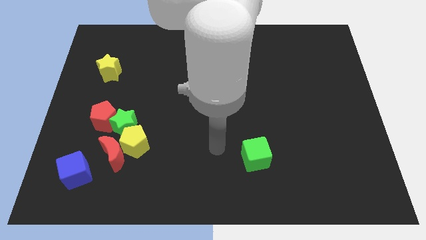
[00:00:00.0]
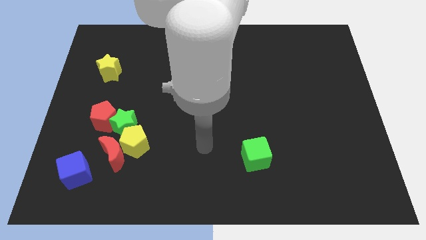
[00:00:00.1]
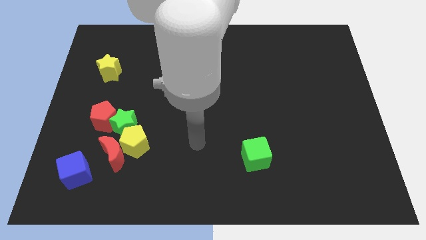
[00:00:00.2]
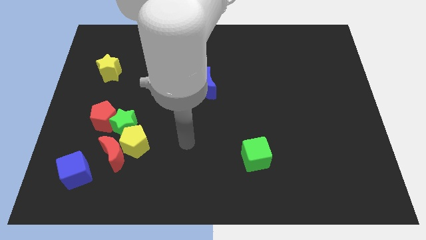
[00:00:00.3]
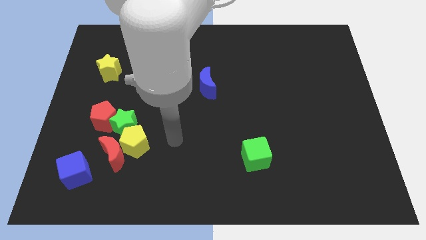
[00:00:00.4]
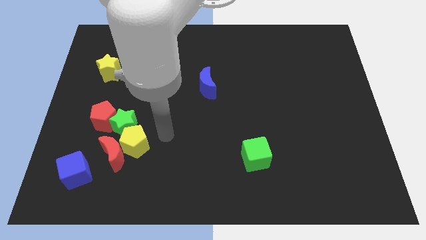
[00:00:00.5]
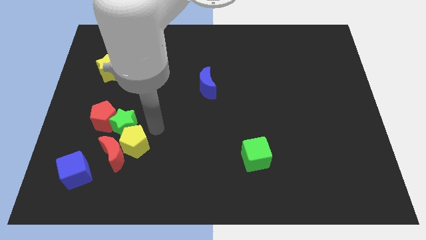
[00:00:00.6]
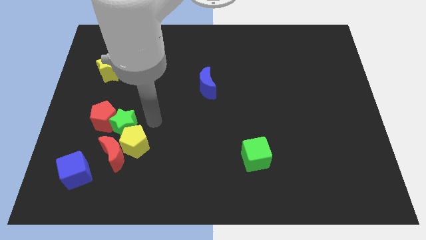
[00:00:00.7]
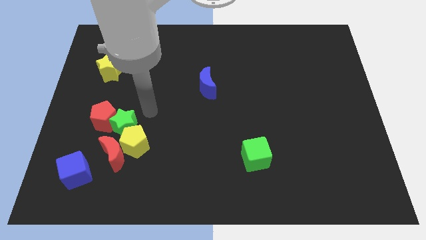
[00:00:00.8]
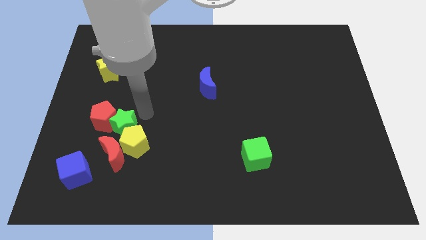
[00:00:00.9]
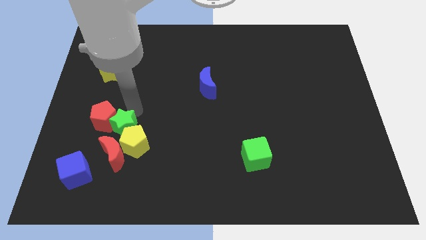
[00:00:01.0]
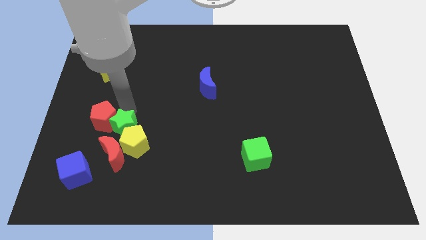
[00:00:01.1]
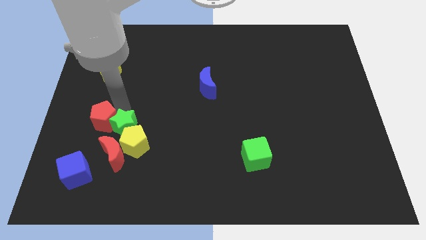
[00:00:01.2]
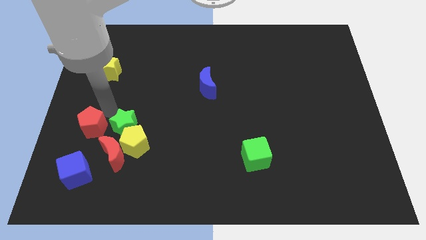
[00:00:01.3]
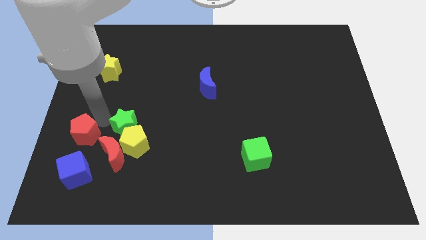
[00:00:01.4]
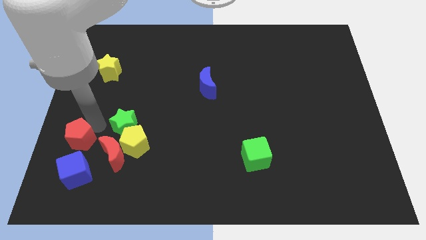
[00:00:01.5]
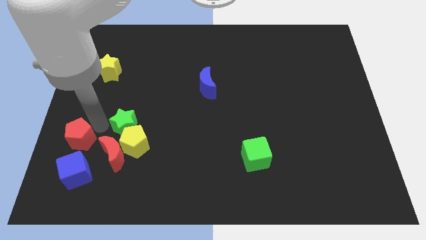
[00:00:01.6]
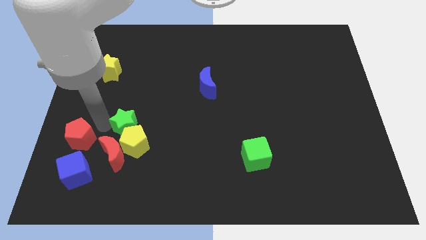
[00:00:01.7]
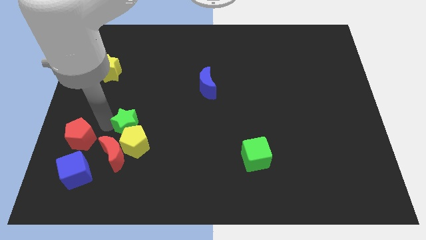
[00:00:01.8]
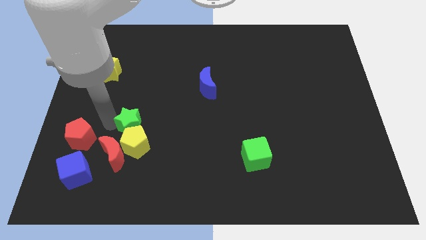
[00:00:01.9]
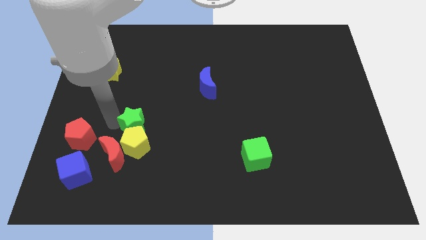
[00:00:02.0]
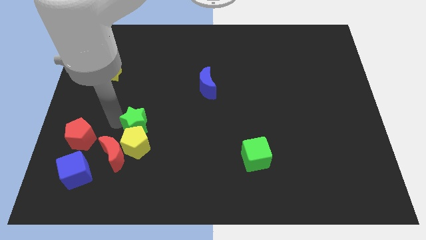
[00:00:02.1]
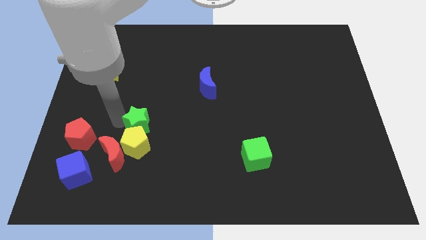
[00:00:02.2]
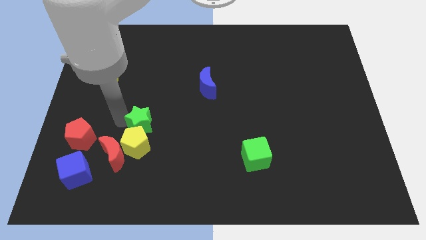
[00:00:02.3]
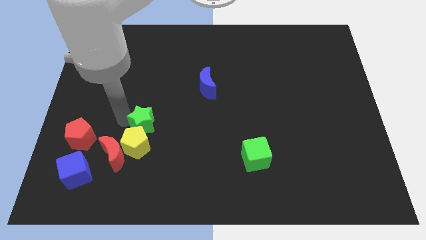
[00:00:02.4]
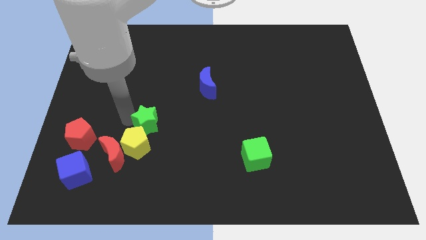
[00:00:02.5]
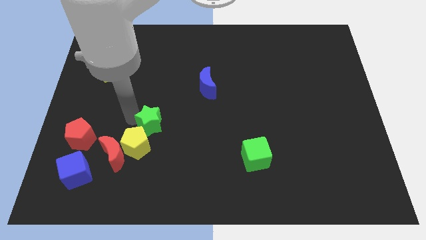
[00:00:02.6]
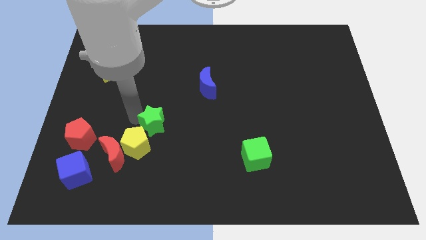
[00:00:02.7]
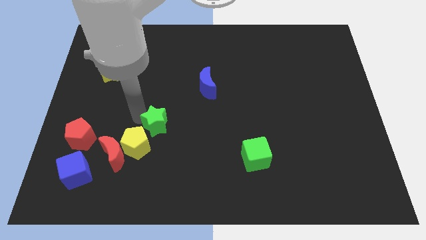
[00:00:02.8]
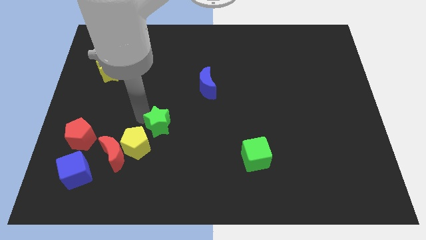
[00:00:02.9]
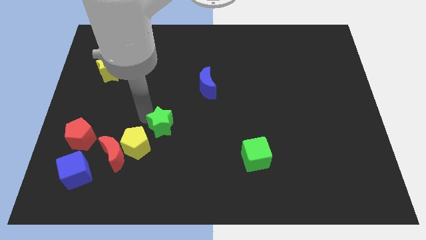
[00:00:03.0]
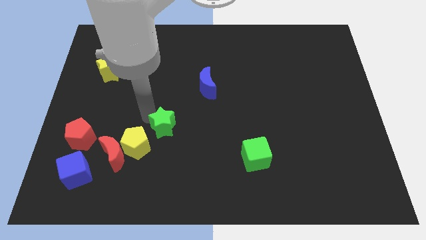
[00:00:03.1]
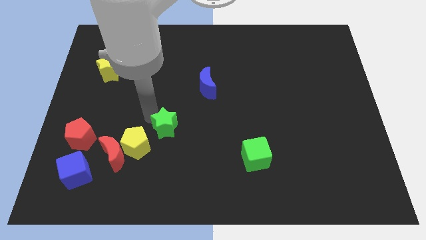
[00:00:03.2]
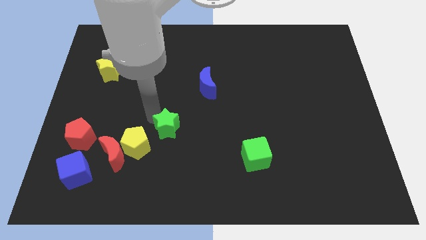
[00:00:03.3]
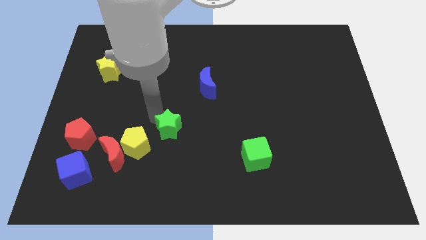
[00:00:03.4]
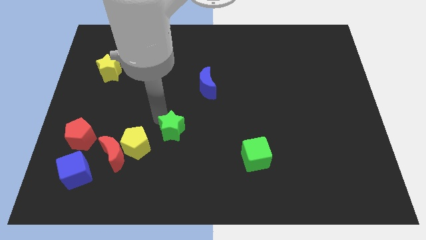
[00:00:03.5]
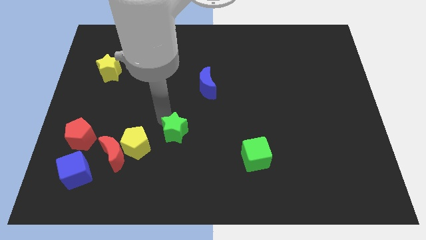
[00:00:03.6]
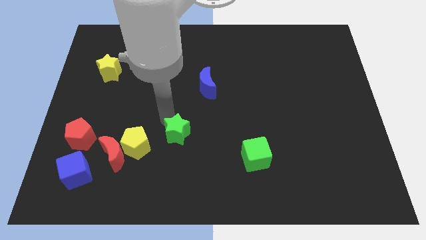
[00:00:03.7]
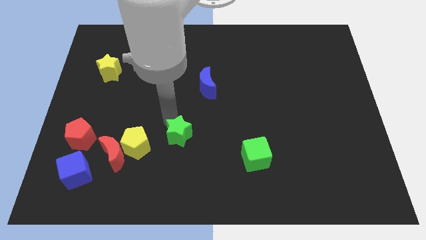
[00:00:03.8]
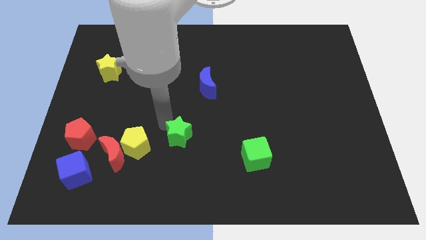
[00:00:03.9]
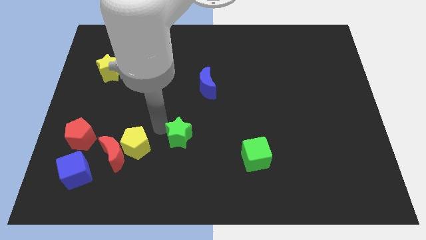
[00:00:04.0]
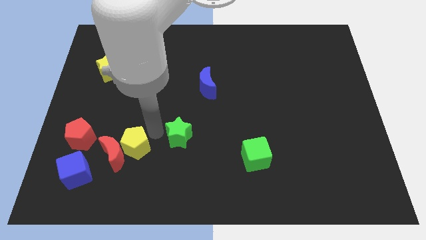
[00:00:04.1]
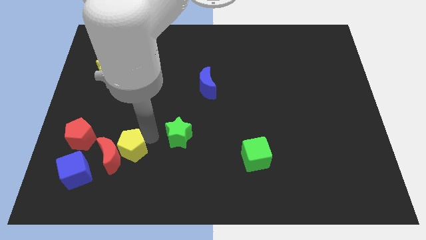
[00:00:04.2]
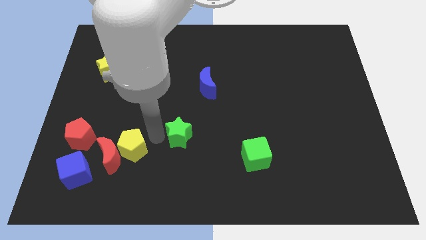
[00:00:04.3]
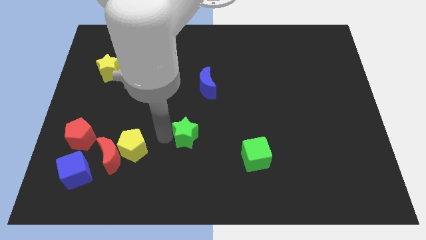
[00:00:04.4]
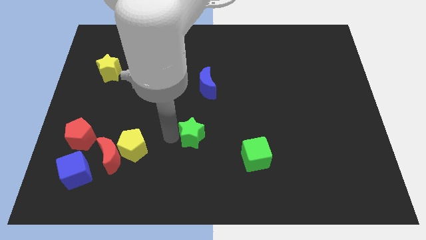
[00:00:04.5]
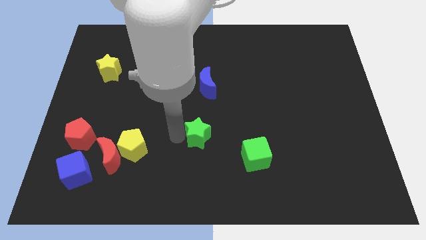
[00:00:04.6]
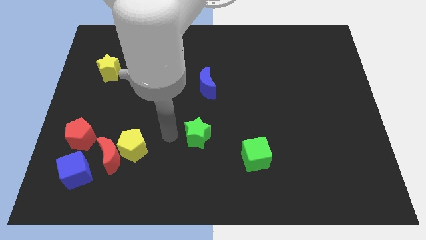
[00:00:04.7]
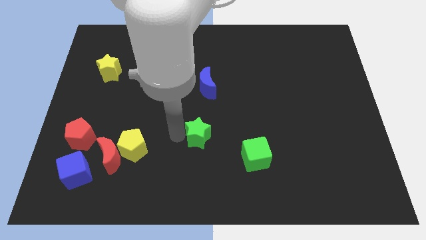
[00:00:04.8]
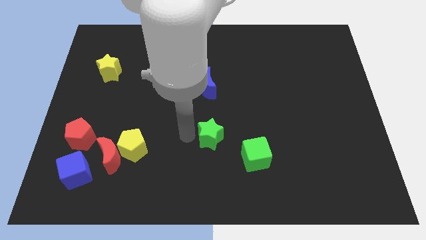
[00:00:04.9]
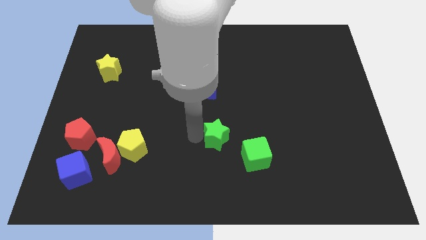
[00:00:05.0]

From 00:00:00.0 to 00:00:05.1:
push the green star to the right

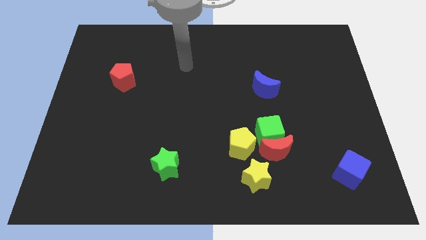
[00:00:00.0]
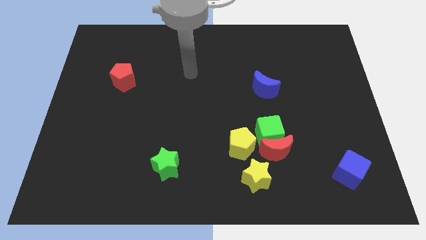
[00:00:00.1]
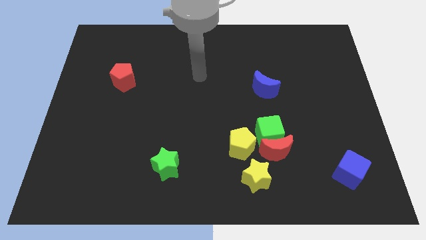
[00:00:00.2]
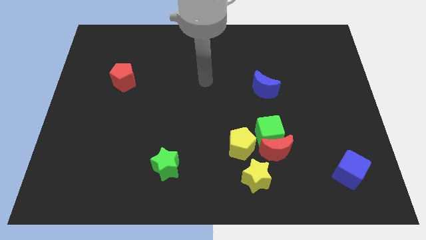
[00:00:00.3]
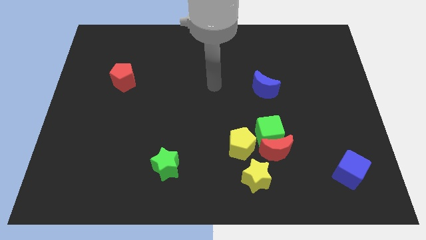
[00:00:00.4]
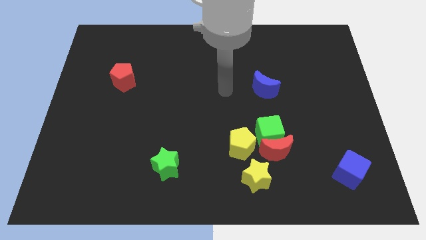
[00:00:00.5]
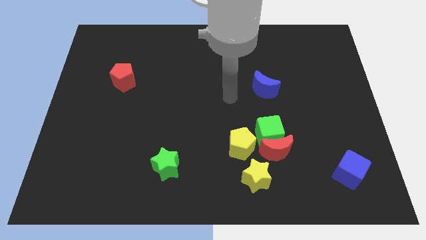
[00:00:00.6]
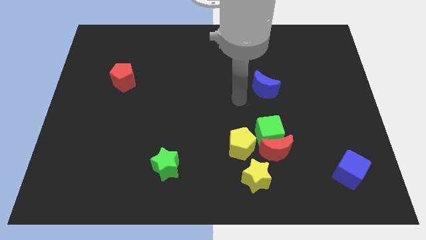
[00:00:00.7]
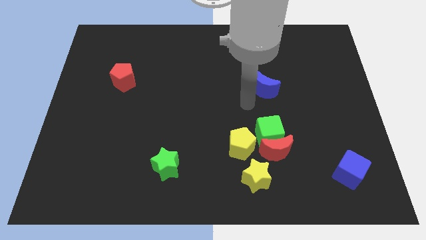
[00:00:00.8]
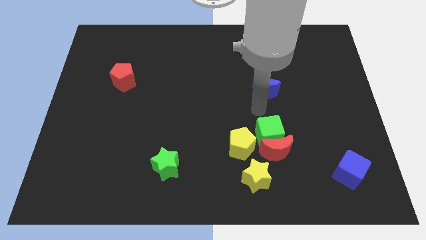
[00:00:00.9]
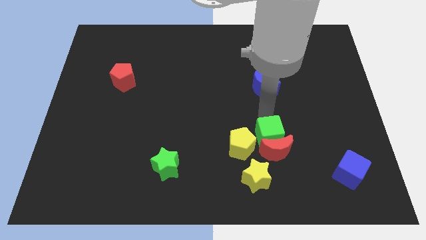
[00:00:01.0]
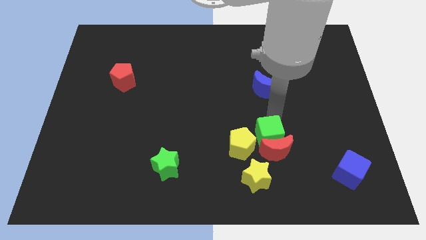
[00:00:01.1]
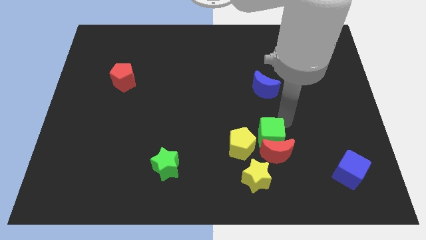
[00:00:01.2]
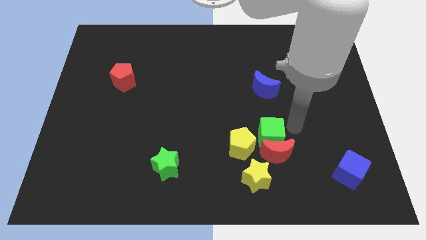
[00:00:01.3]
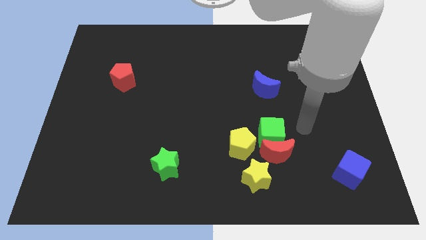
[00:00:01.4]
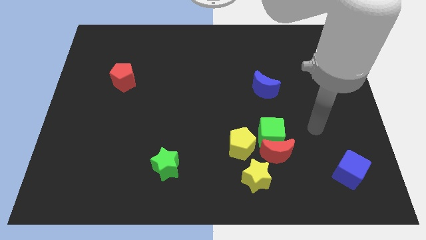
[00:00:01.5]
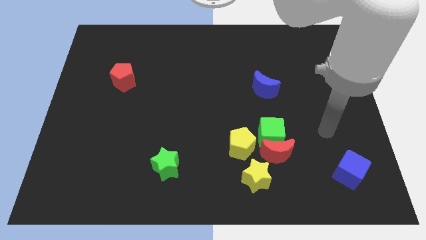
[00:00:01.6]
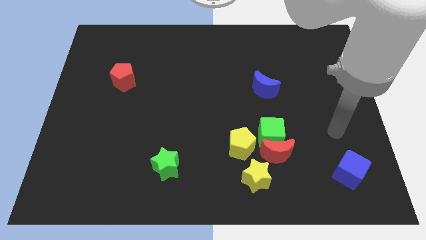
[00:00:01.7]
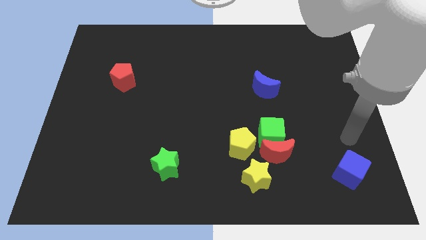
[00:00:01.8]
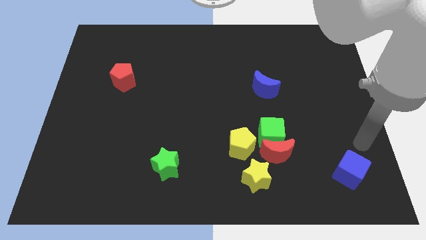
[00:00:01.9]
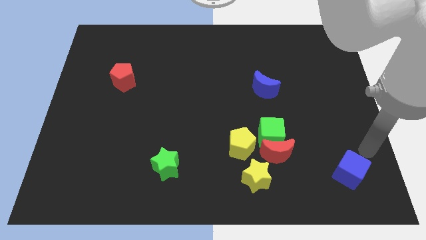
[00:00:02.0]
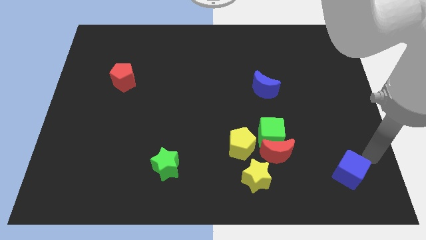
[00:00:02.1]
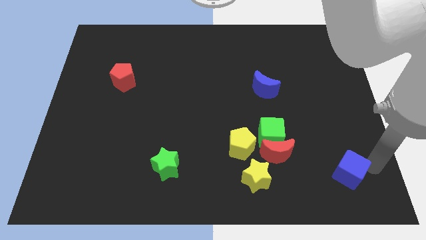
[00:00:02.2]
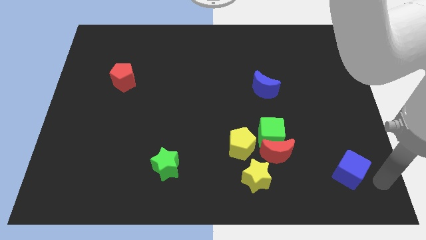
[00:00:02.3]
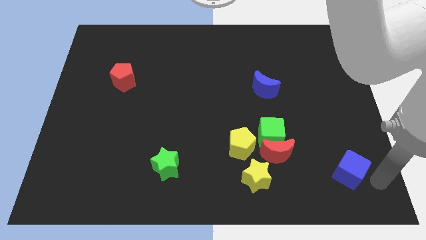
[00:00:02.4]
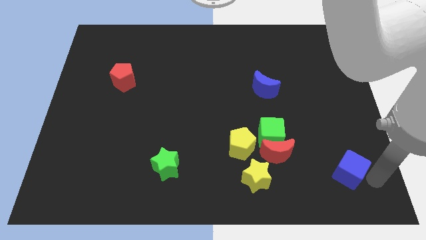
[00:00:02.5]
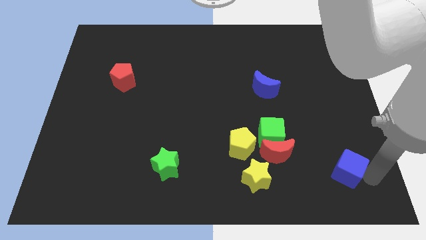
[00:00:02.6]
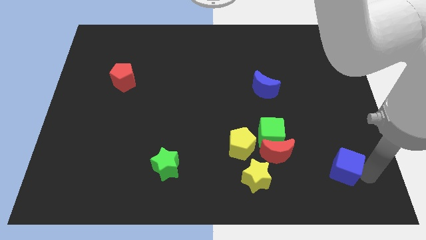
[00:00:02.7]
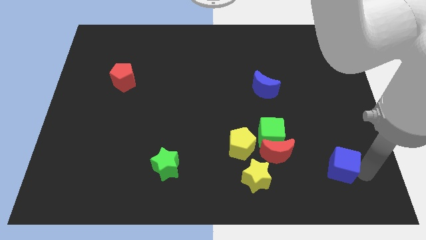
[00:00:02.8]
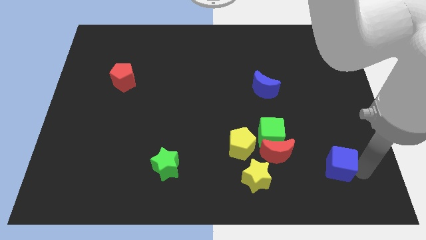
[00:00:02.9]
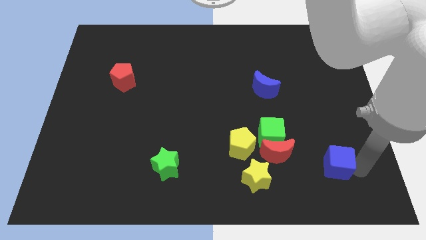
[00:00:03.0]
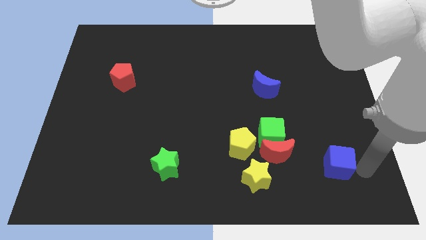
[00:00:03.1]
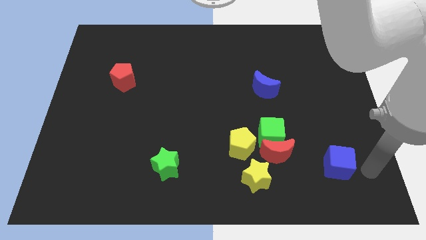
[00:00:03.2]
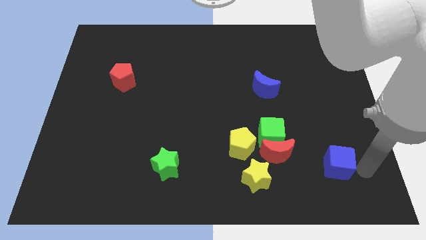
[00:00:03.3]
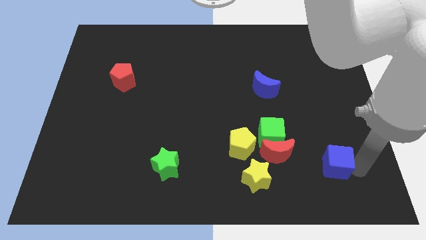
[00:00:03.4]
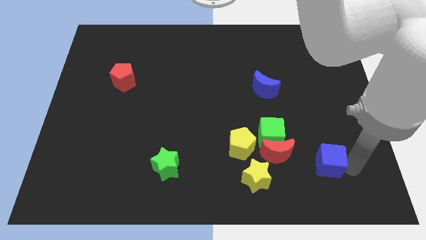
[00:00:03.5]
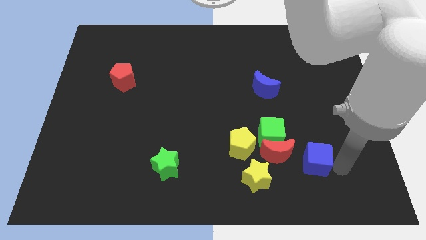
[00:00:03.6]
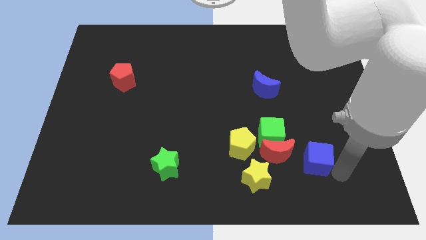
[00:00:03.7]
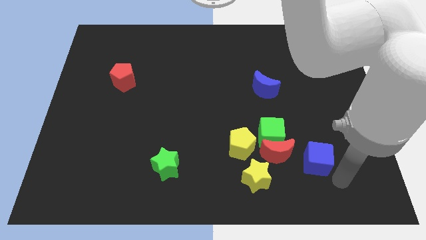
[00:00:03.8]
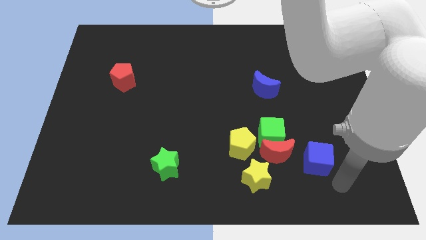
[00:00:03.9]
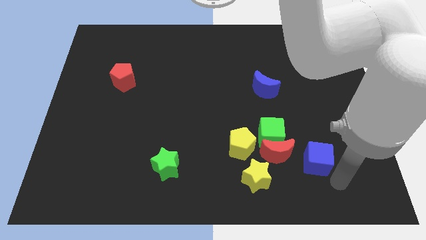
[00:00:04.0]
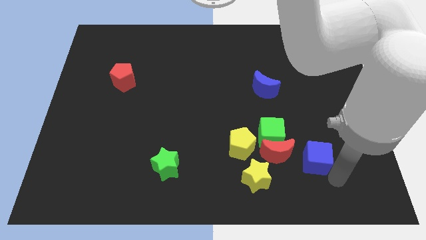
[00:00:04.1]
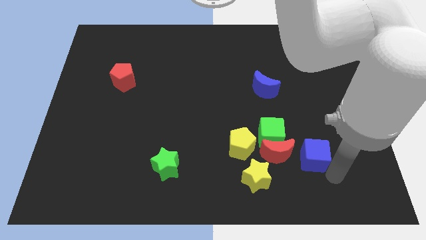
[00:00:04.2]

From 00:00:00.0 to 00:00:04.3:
push the blue cube somewhat upwards and then to the left
